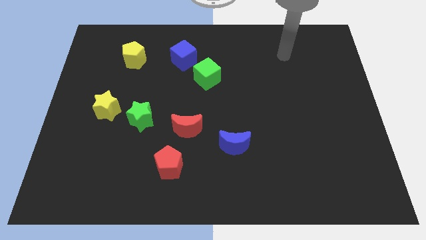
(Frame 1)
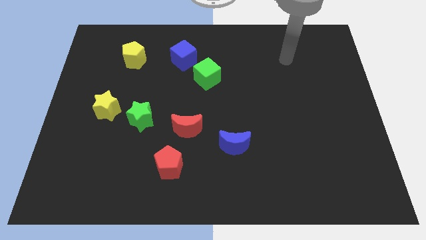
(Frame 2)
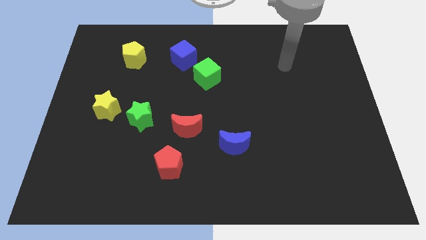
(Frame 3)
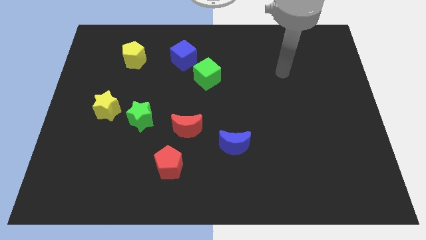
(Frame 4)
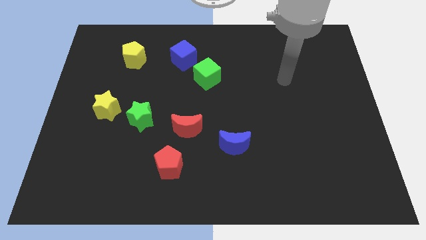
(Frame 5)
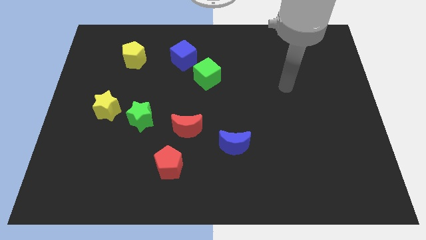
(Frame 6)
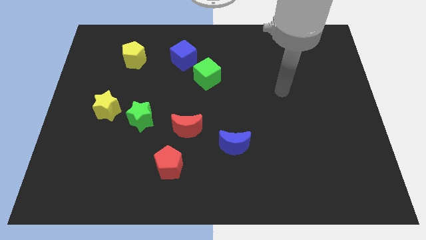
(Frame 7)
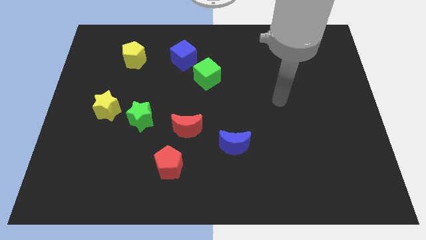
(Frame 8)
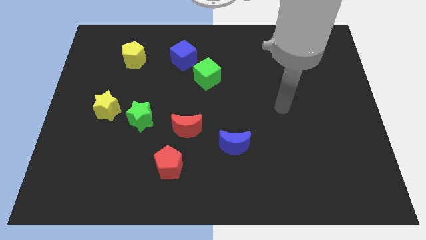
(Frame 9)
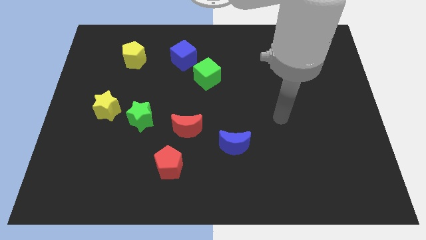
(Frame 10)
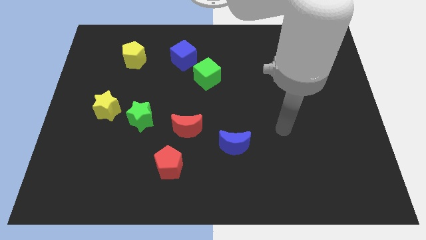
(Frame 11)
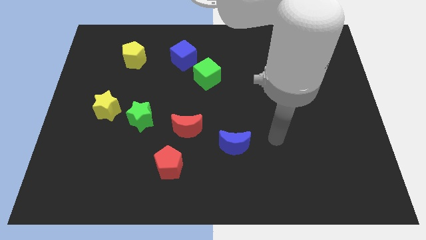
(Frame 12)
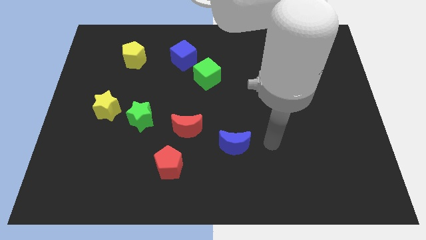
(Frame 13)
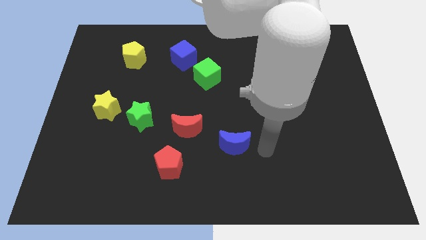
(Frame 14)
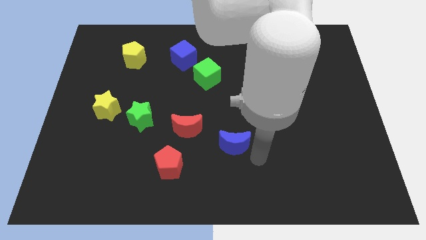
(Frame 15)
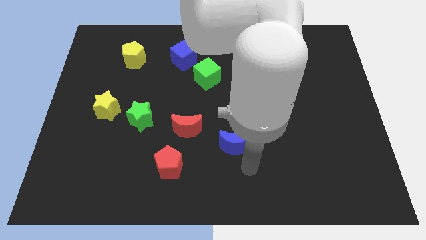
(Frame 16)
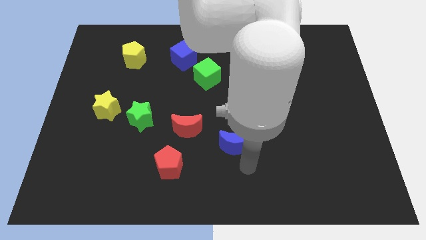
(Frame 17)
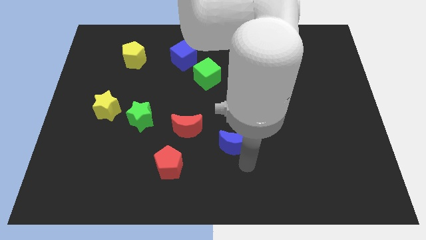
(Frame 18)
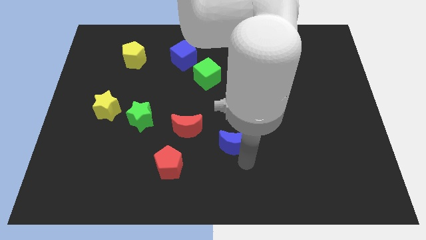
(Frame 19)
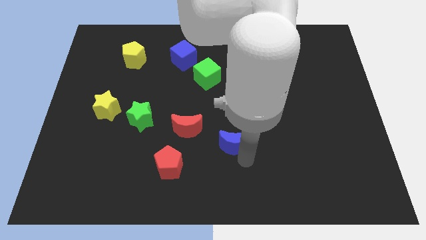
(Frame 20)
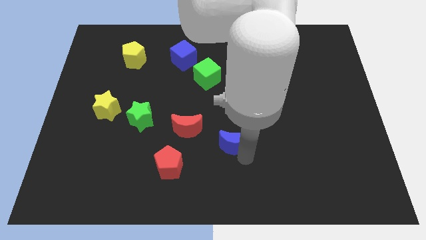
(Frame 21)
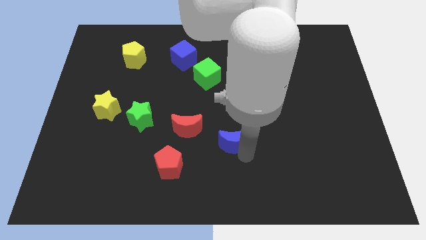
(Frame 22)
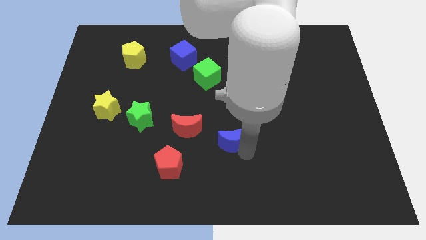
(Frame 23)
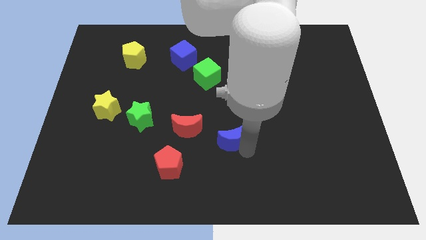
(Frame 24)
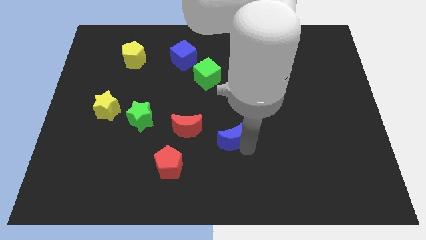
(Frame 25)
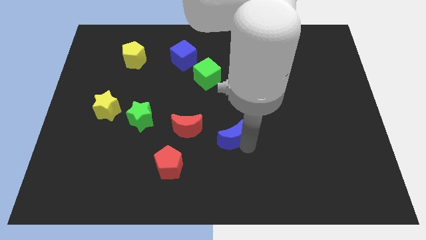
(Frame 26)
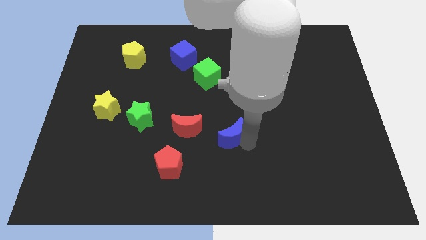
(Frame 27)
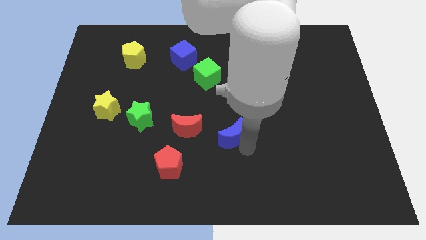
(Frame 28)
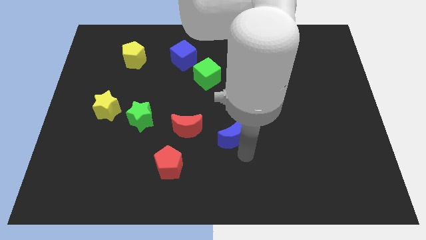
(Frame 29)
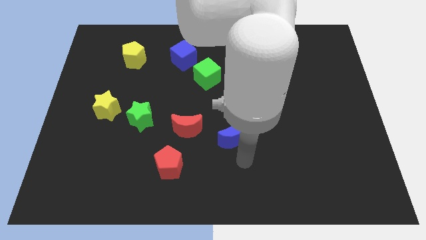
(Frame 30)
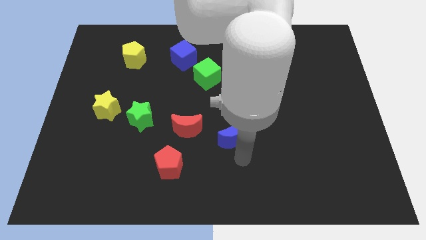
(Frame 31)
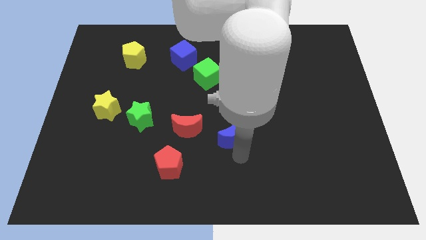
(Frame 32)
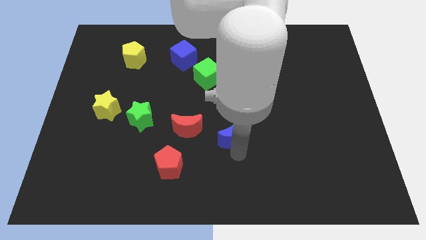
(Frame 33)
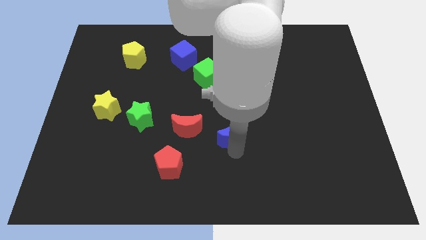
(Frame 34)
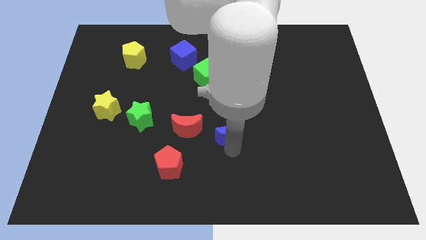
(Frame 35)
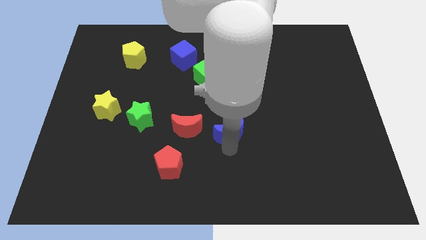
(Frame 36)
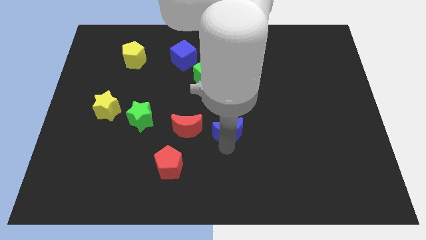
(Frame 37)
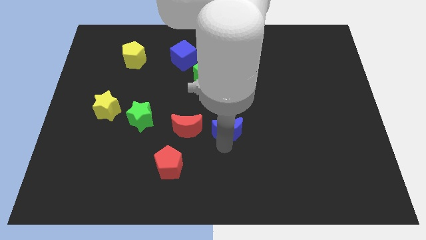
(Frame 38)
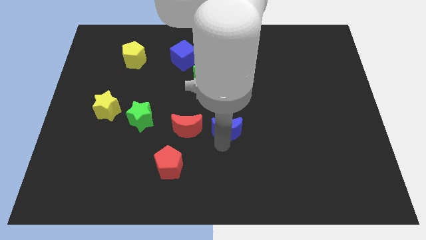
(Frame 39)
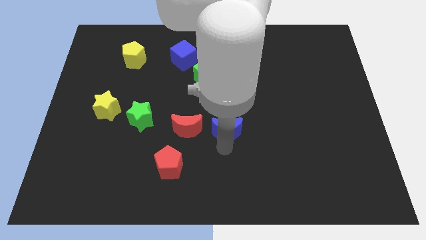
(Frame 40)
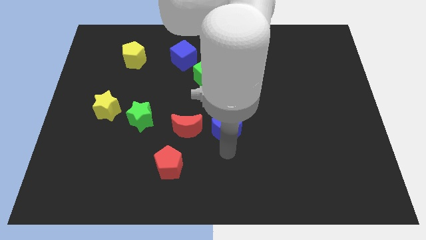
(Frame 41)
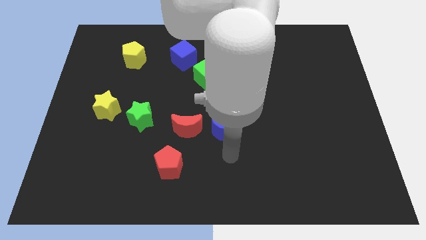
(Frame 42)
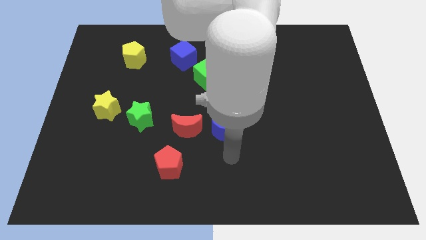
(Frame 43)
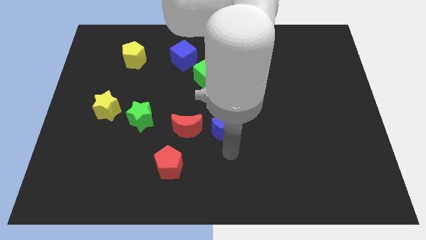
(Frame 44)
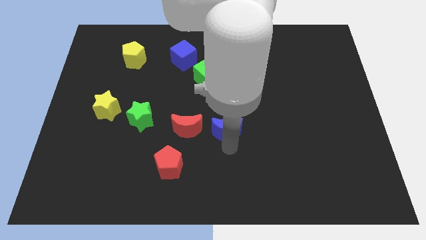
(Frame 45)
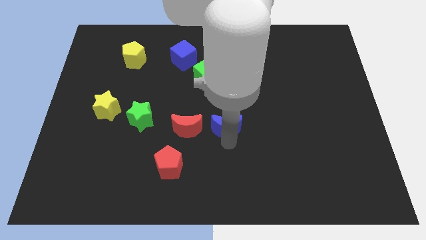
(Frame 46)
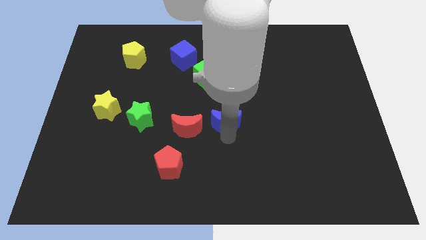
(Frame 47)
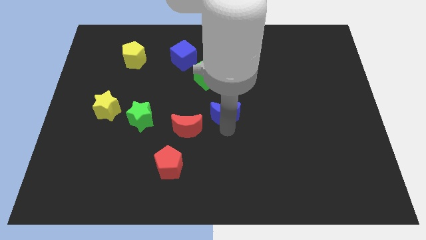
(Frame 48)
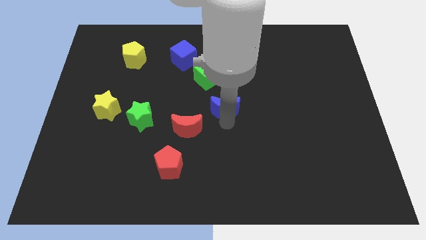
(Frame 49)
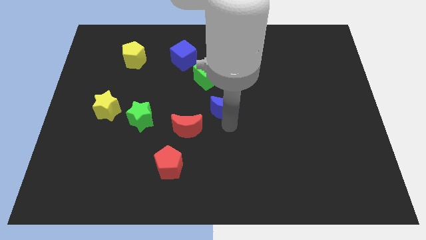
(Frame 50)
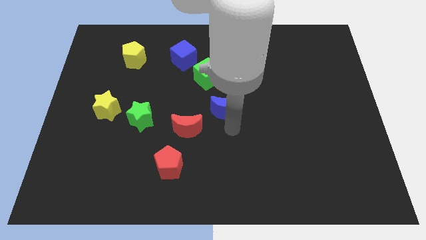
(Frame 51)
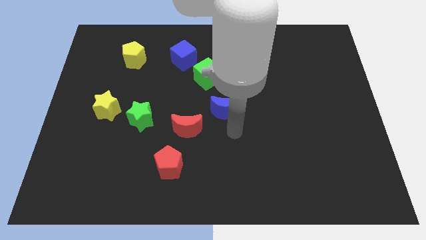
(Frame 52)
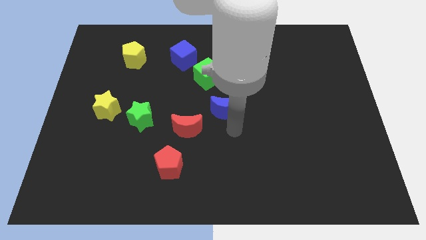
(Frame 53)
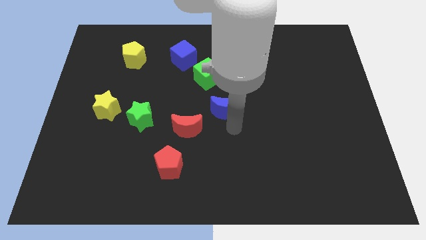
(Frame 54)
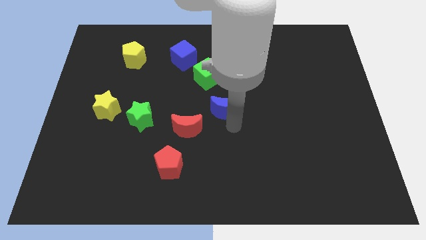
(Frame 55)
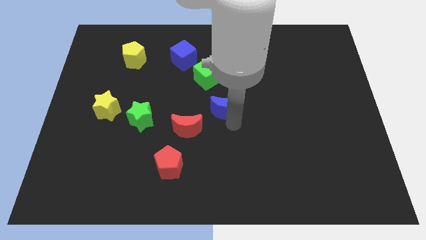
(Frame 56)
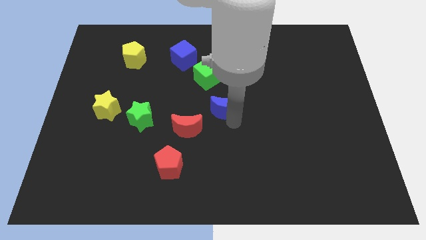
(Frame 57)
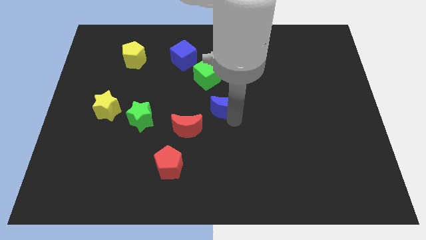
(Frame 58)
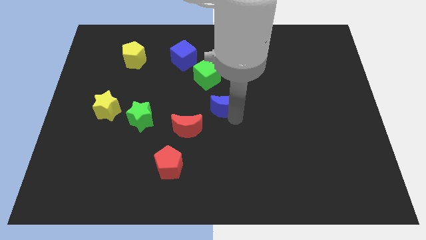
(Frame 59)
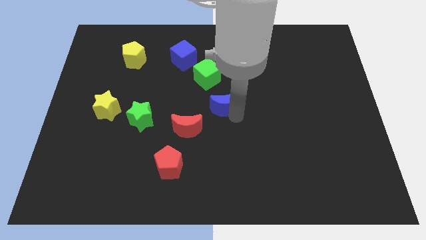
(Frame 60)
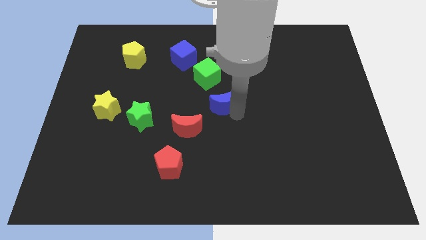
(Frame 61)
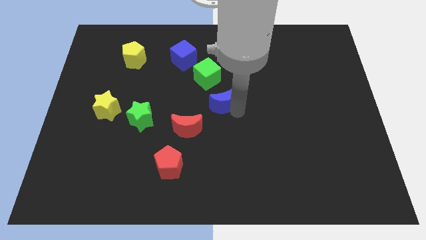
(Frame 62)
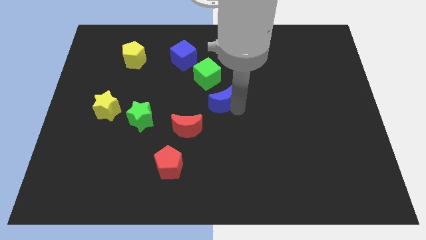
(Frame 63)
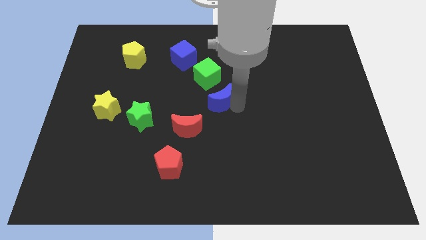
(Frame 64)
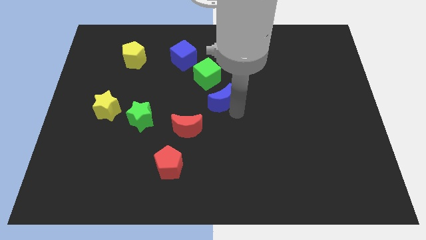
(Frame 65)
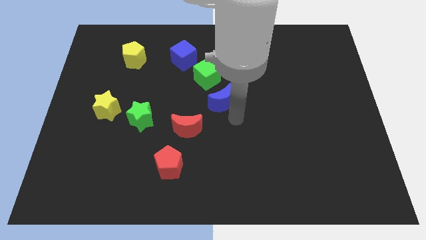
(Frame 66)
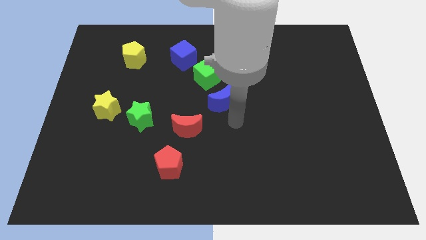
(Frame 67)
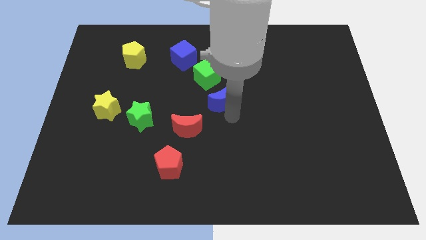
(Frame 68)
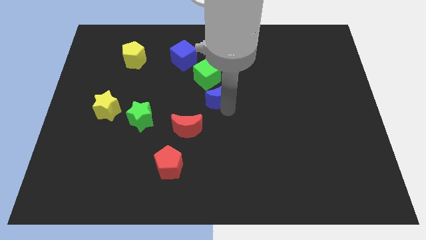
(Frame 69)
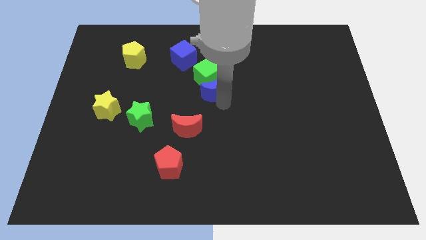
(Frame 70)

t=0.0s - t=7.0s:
put the blue moon close to the green cube

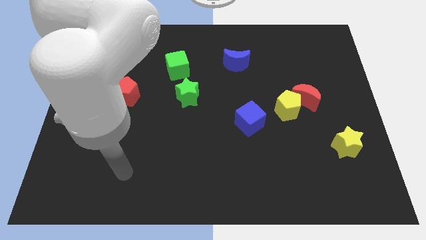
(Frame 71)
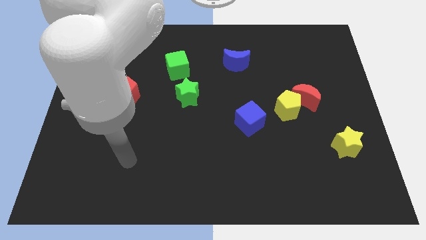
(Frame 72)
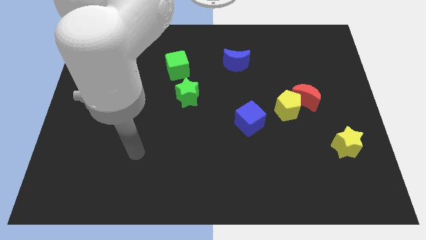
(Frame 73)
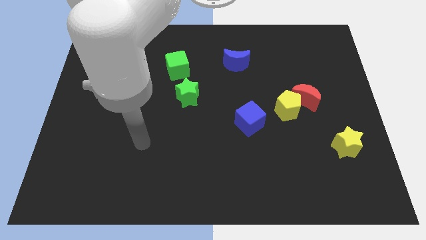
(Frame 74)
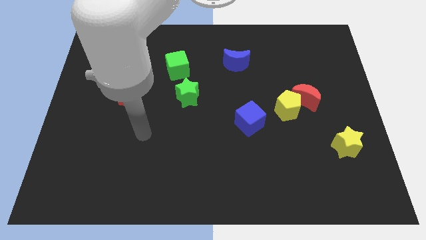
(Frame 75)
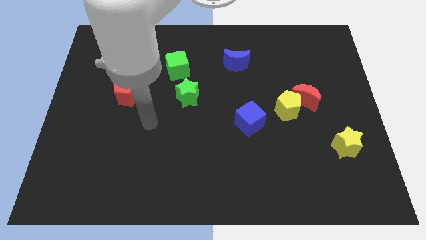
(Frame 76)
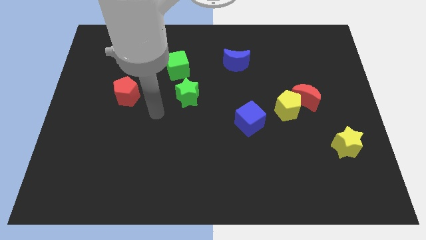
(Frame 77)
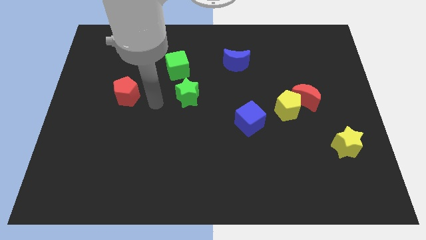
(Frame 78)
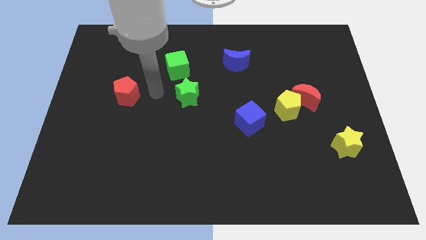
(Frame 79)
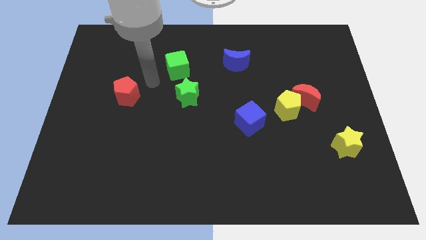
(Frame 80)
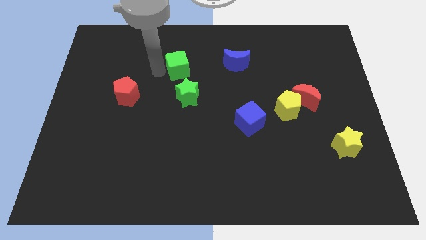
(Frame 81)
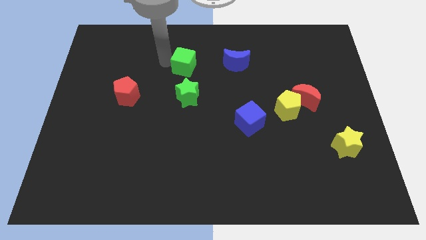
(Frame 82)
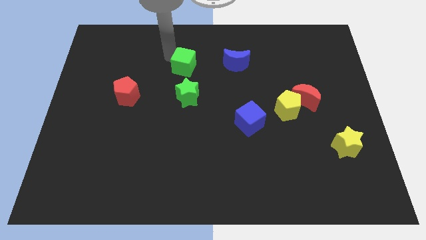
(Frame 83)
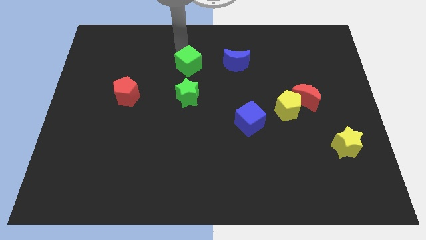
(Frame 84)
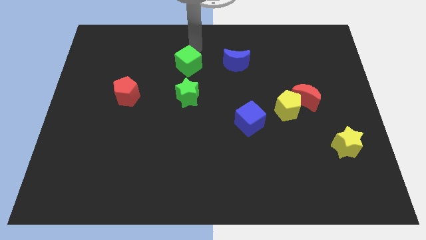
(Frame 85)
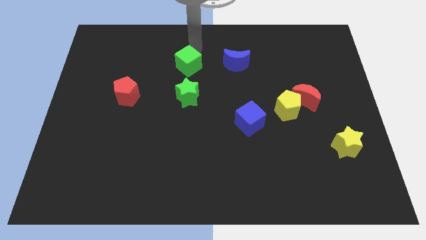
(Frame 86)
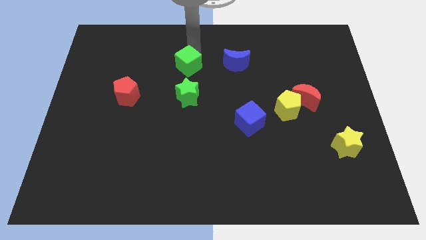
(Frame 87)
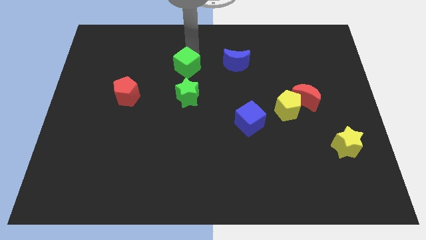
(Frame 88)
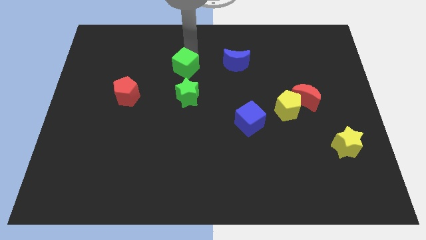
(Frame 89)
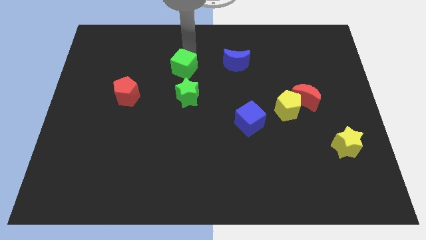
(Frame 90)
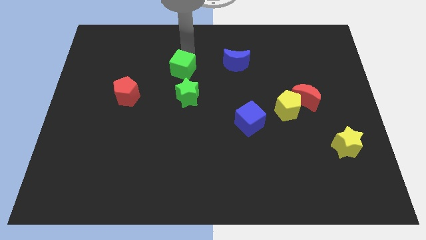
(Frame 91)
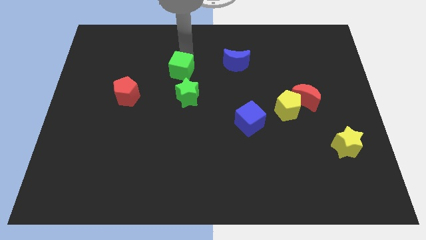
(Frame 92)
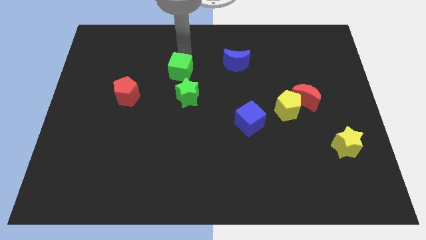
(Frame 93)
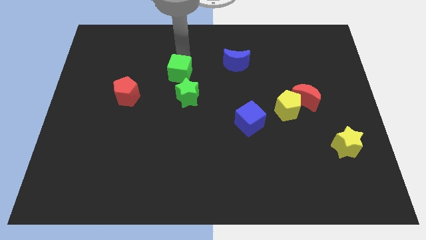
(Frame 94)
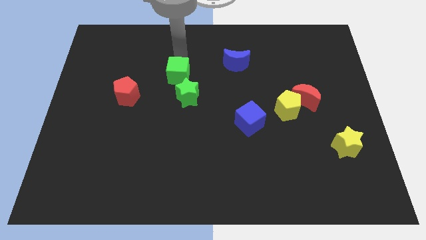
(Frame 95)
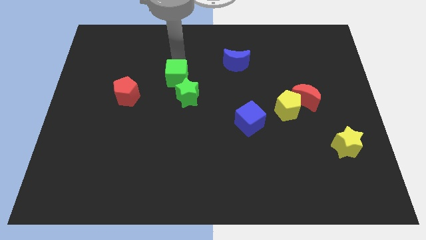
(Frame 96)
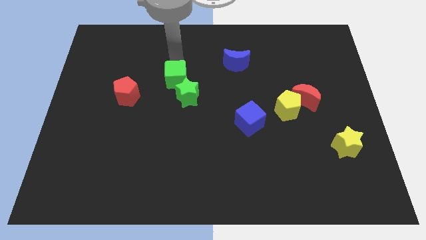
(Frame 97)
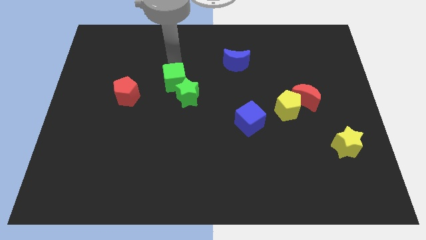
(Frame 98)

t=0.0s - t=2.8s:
slide the green cube towards the green star
